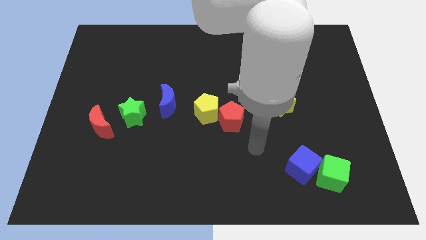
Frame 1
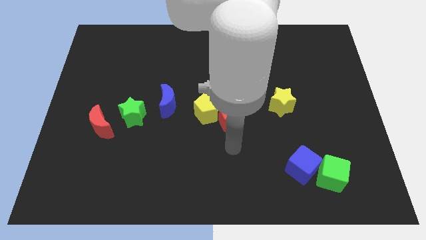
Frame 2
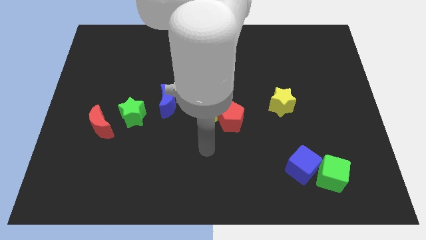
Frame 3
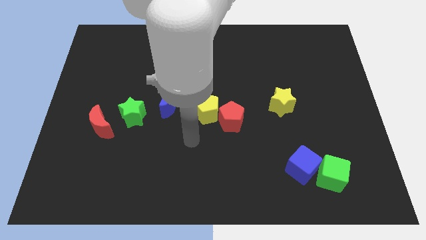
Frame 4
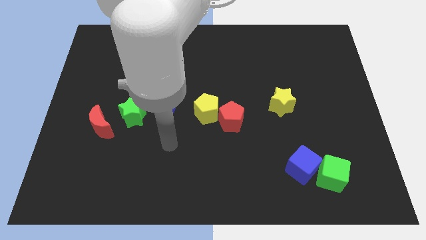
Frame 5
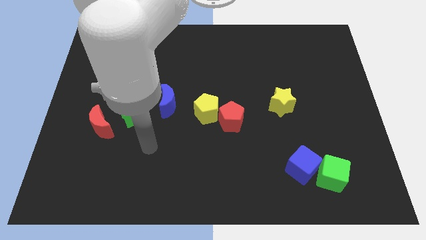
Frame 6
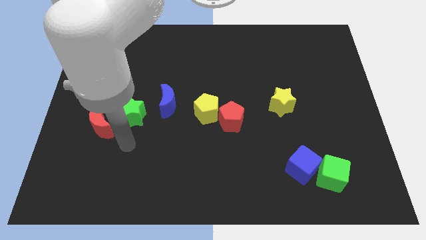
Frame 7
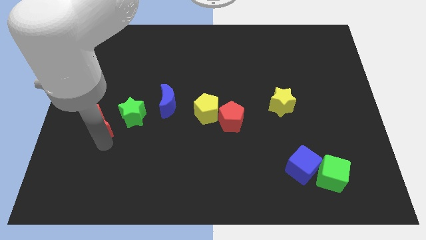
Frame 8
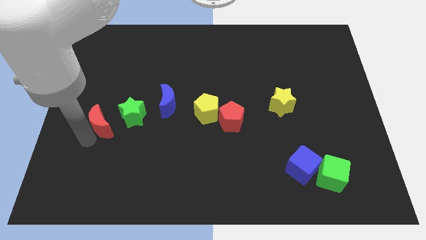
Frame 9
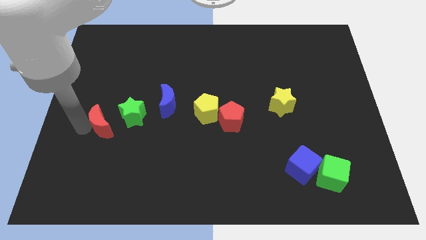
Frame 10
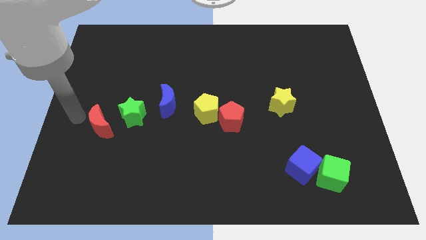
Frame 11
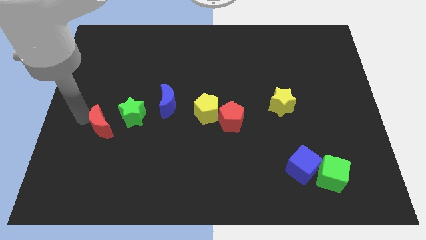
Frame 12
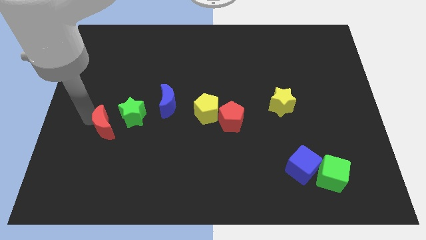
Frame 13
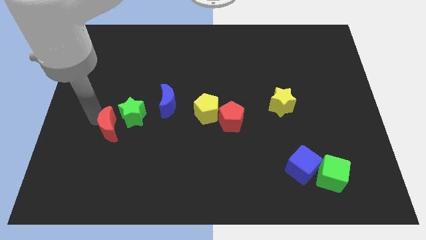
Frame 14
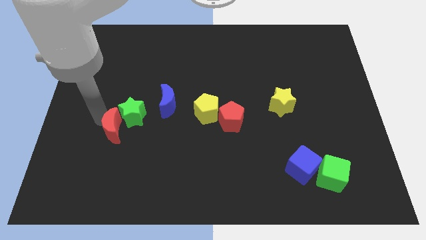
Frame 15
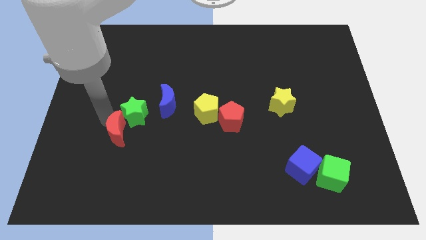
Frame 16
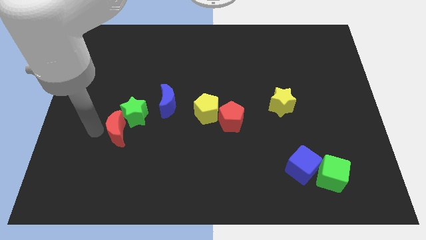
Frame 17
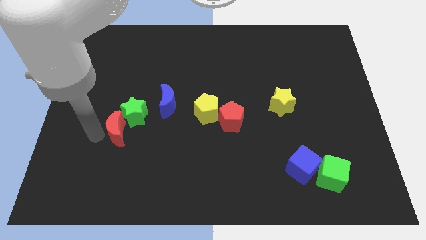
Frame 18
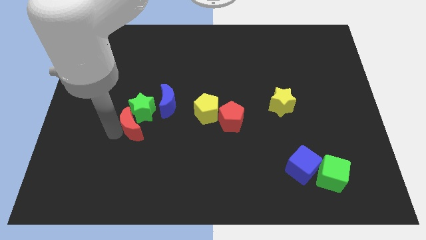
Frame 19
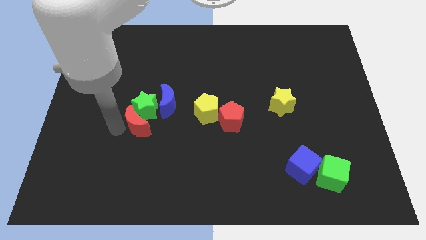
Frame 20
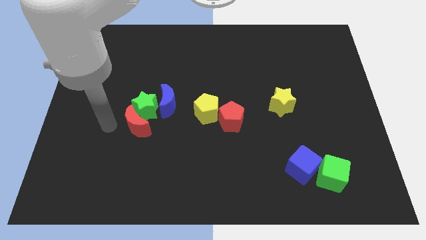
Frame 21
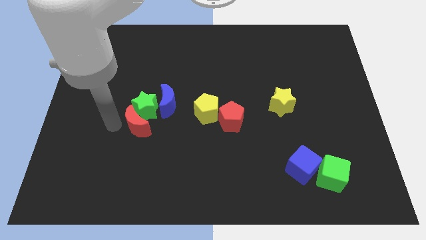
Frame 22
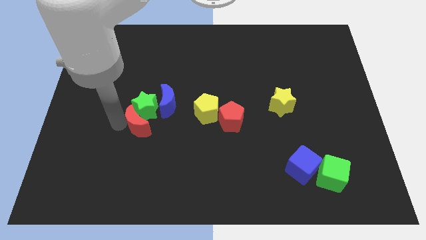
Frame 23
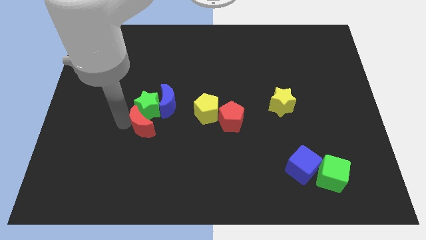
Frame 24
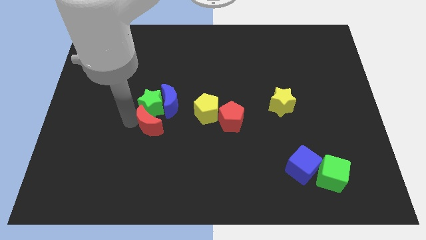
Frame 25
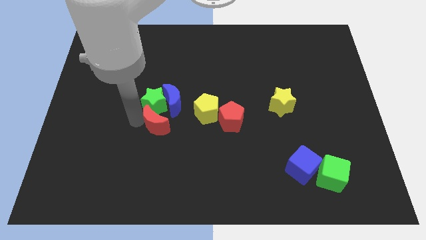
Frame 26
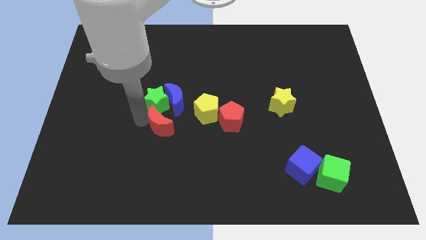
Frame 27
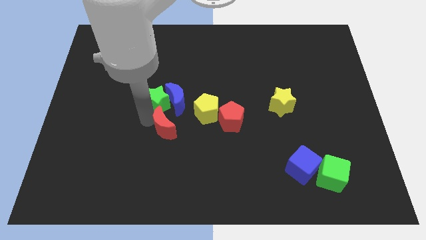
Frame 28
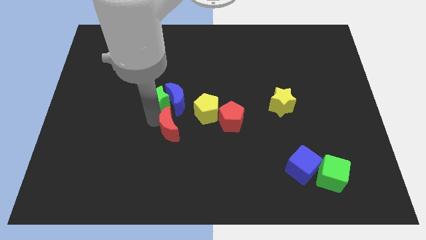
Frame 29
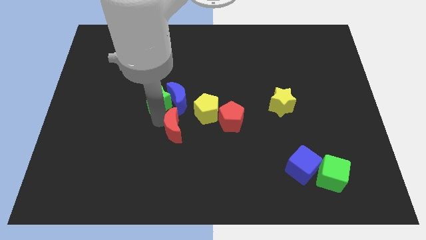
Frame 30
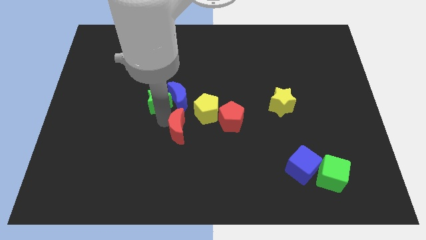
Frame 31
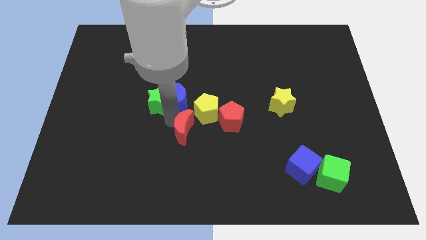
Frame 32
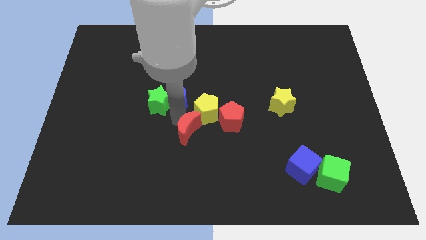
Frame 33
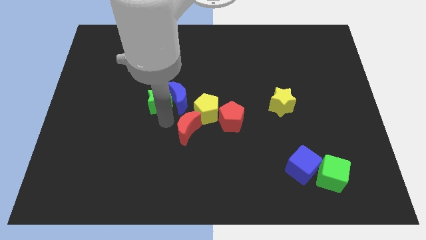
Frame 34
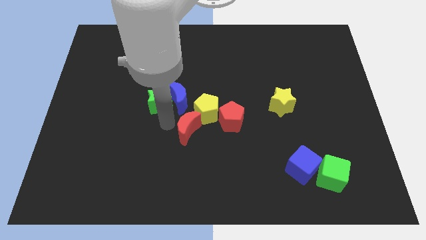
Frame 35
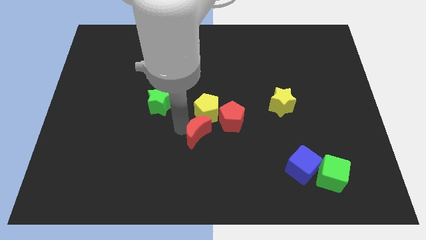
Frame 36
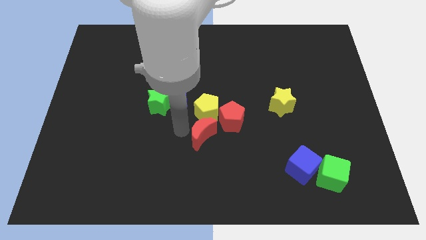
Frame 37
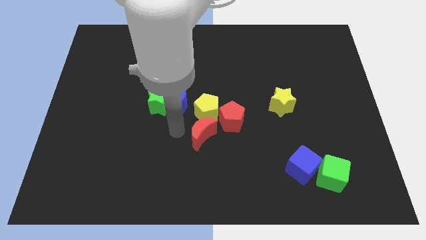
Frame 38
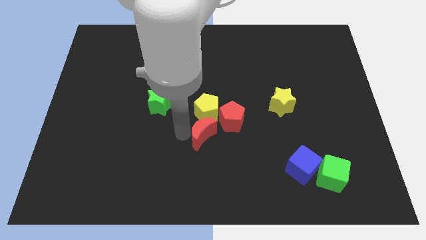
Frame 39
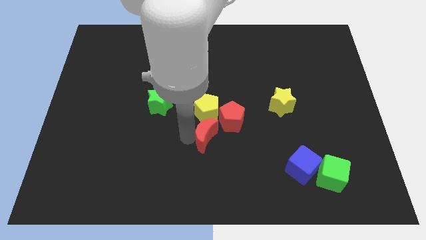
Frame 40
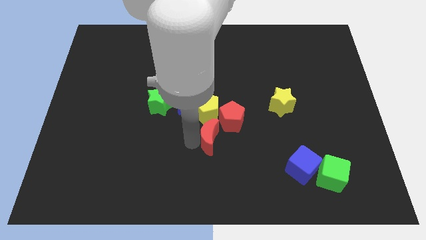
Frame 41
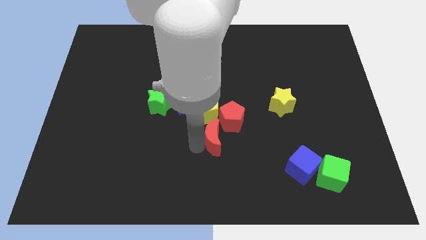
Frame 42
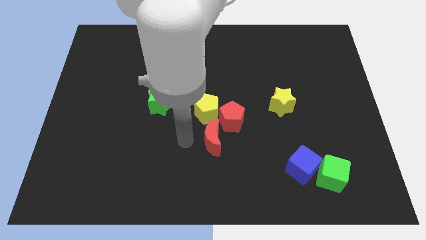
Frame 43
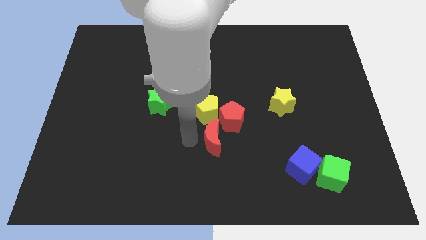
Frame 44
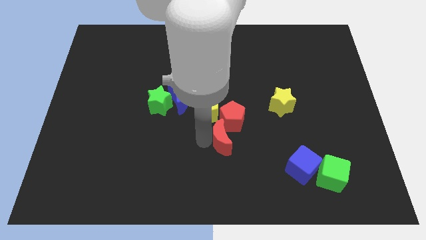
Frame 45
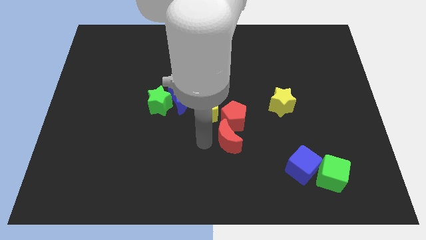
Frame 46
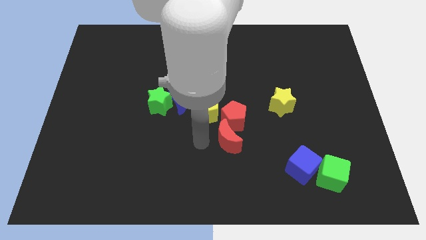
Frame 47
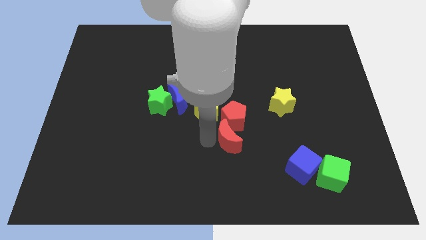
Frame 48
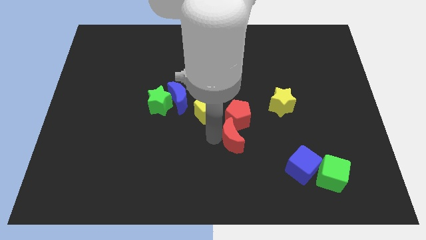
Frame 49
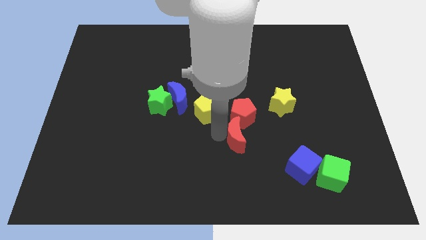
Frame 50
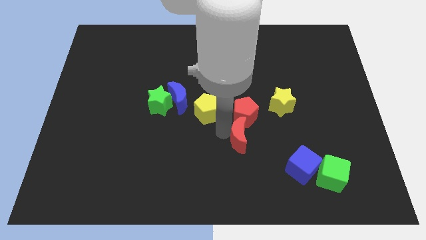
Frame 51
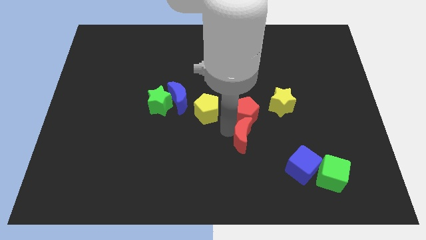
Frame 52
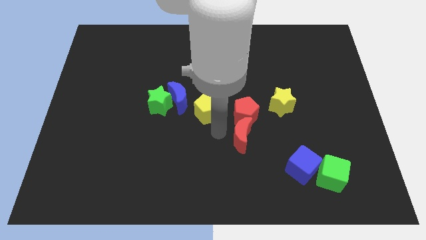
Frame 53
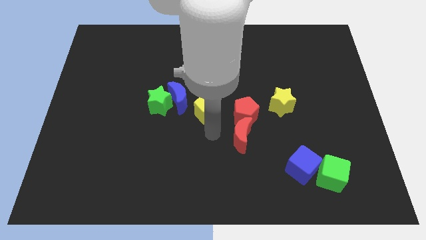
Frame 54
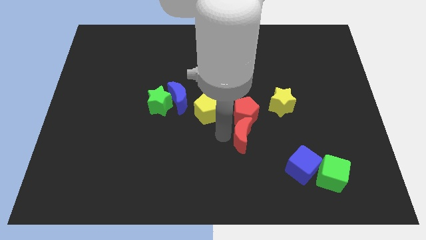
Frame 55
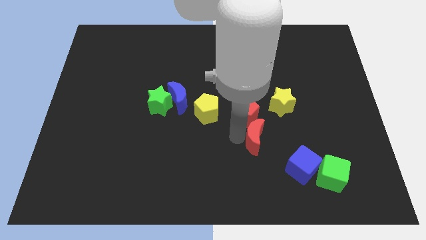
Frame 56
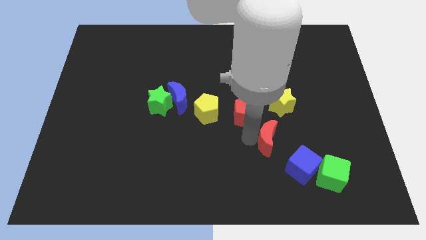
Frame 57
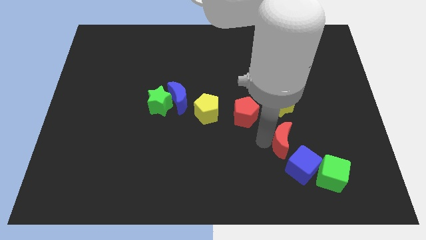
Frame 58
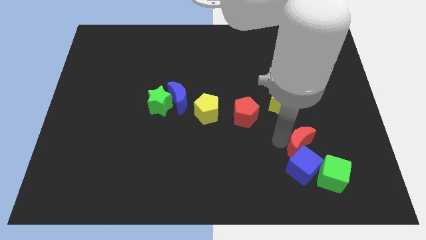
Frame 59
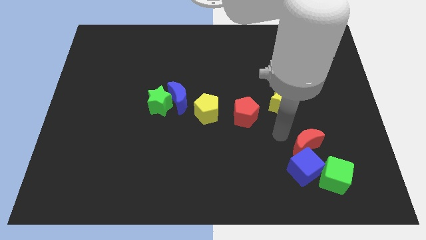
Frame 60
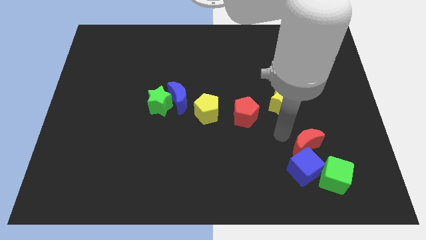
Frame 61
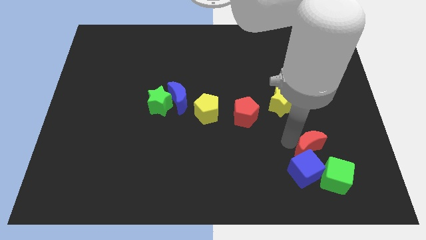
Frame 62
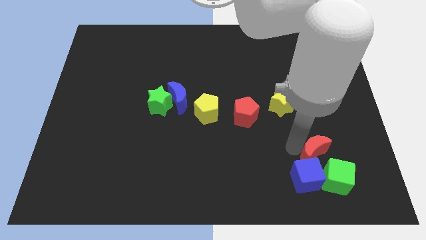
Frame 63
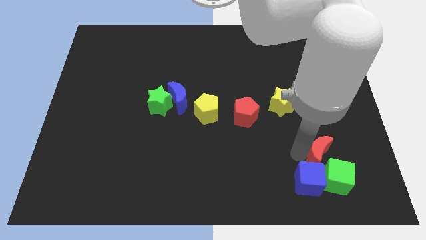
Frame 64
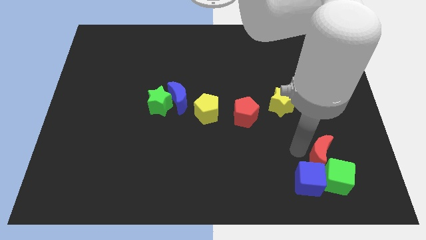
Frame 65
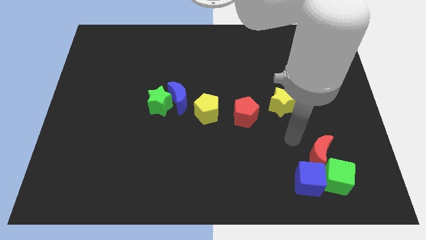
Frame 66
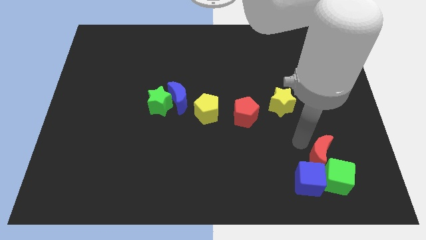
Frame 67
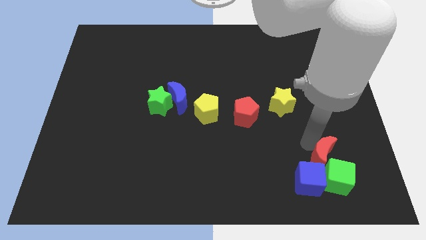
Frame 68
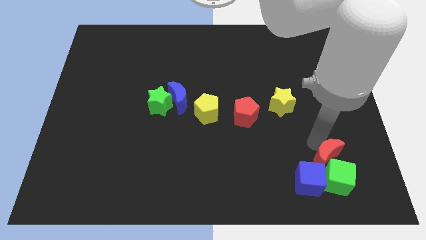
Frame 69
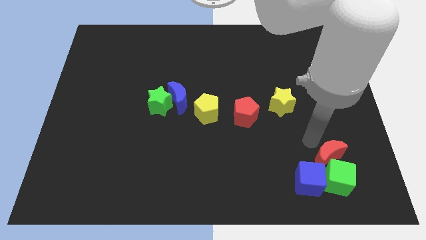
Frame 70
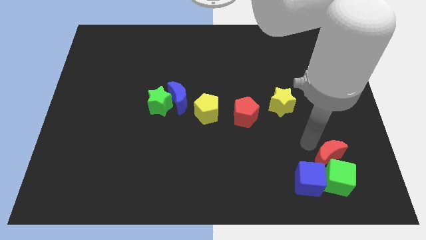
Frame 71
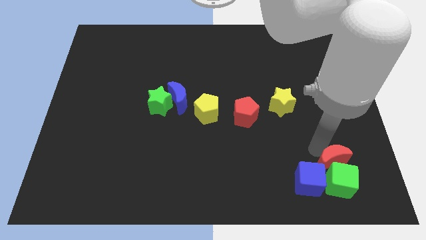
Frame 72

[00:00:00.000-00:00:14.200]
slide the red moon just right of the blue cube

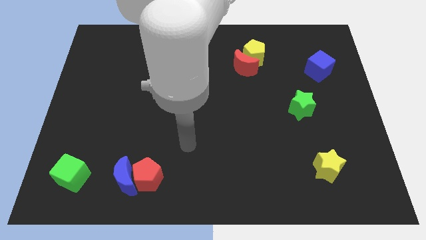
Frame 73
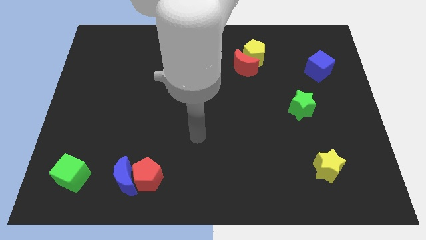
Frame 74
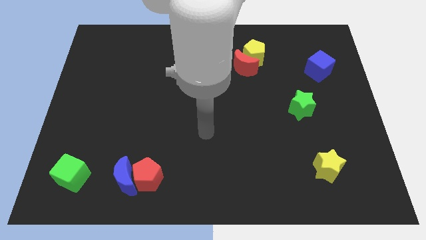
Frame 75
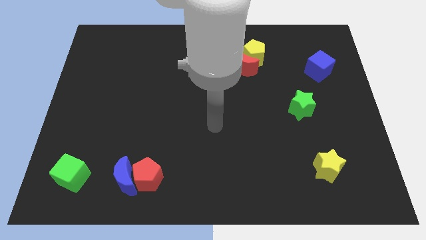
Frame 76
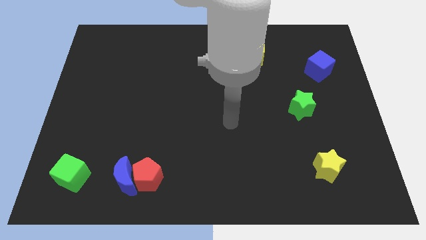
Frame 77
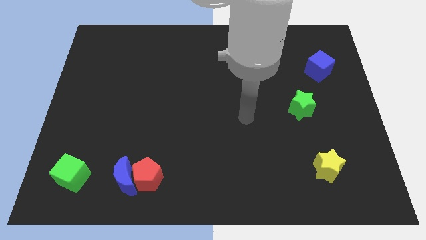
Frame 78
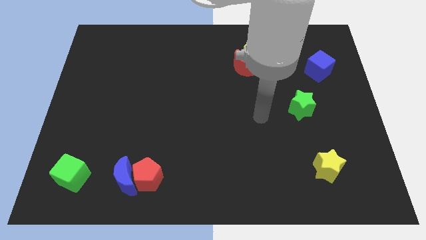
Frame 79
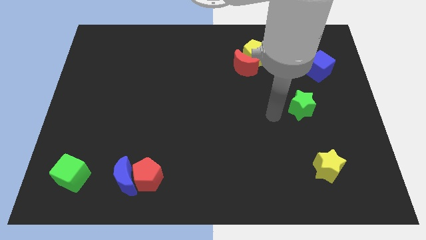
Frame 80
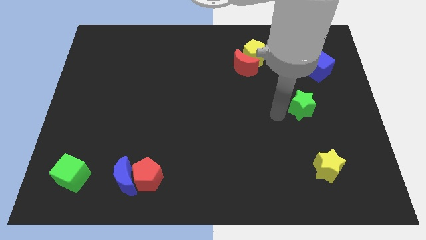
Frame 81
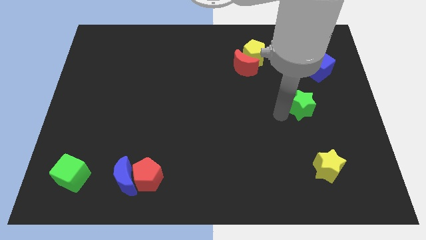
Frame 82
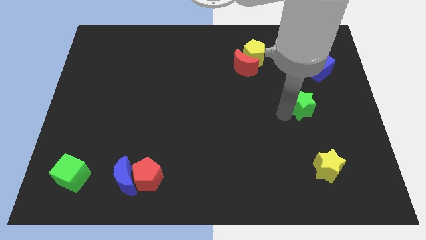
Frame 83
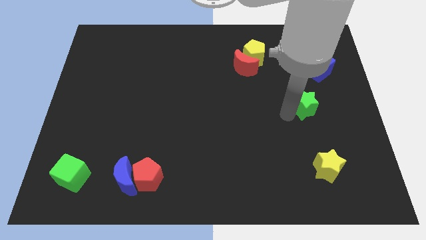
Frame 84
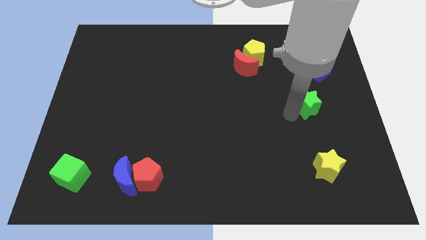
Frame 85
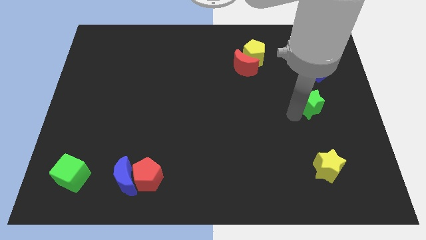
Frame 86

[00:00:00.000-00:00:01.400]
push the green star to the bottom of the blue cube
